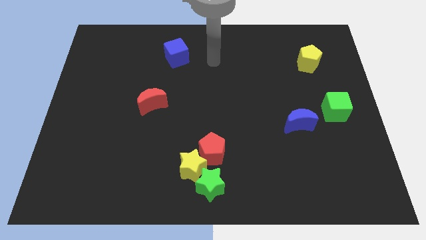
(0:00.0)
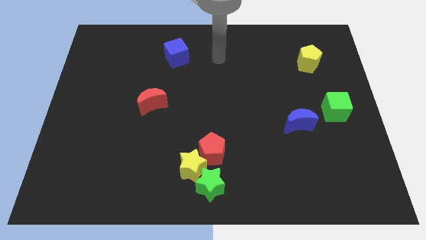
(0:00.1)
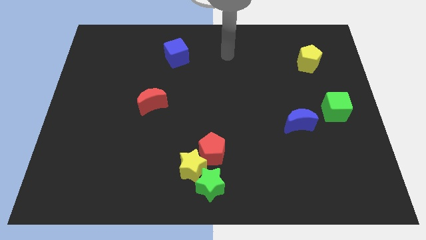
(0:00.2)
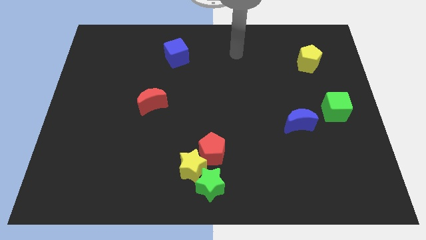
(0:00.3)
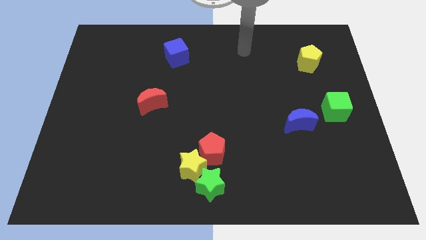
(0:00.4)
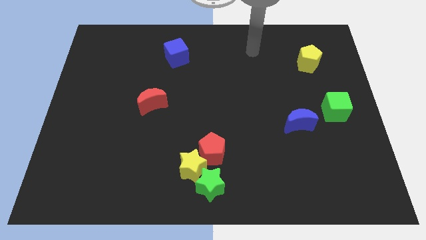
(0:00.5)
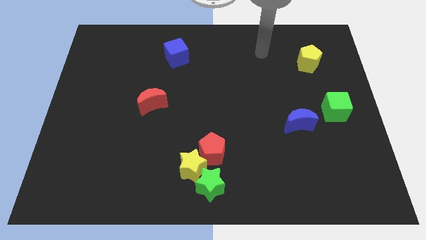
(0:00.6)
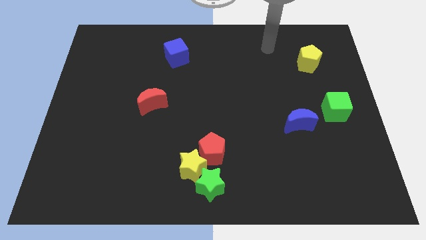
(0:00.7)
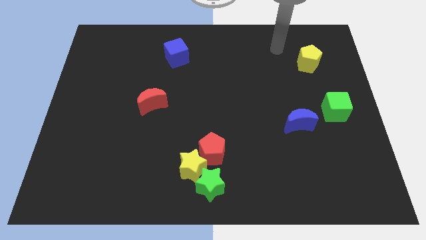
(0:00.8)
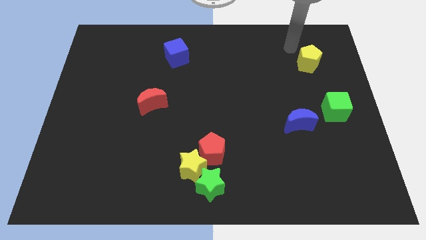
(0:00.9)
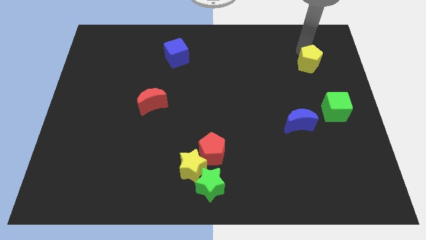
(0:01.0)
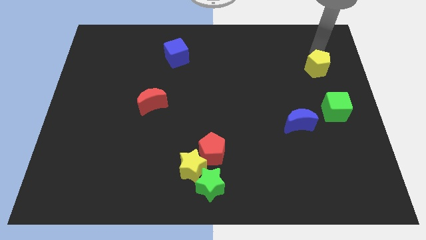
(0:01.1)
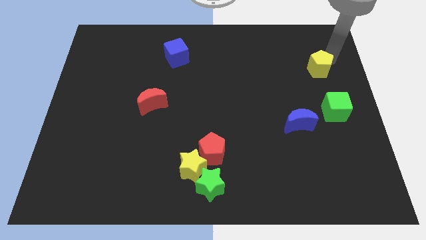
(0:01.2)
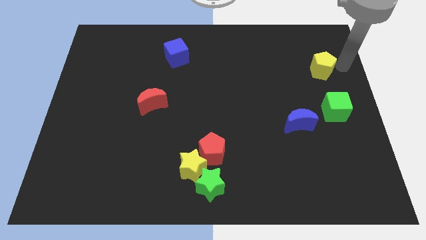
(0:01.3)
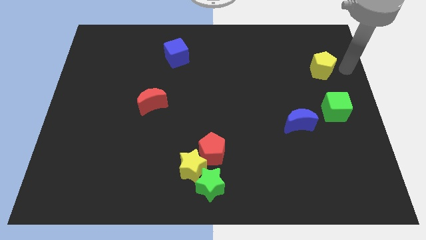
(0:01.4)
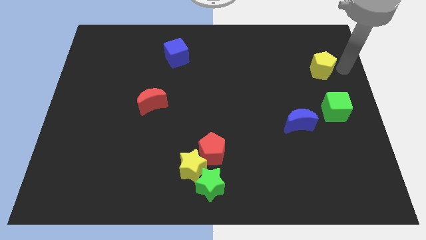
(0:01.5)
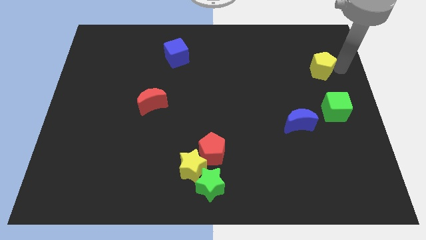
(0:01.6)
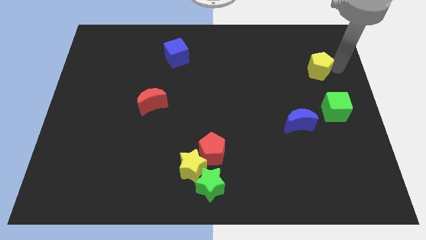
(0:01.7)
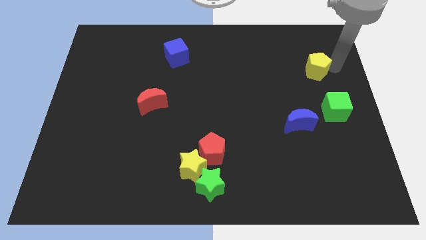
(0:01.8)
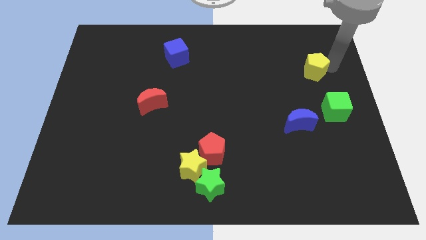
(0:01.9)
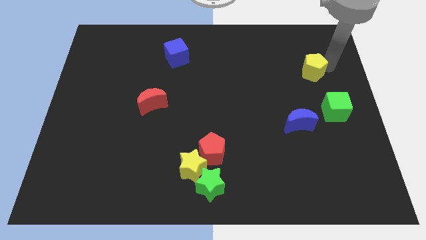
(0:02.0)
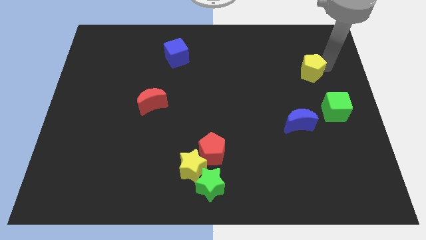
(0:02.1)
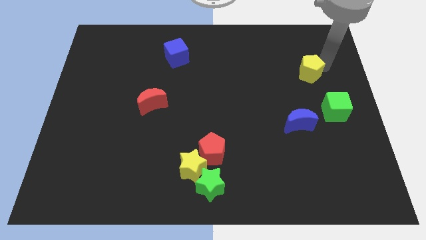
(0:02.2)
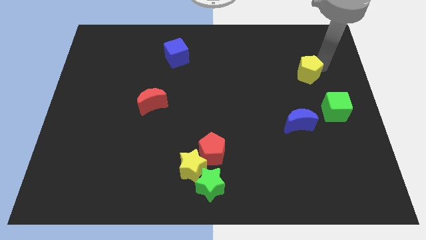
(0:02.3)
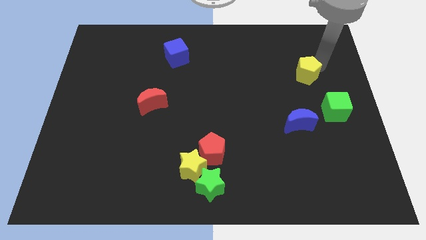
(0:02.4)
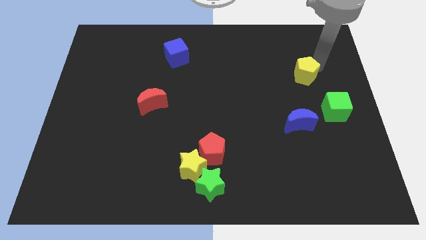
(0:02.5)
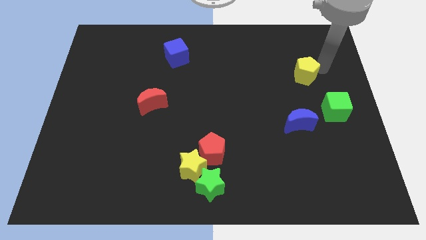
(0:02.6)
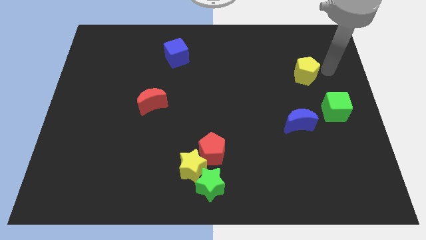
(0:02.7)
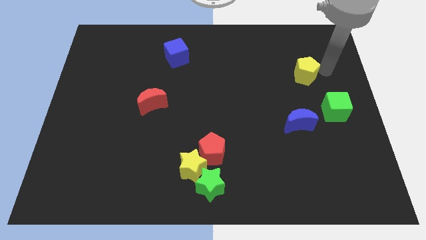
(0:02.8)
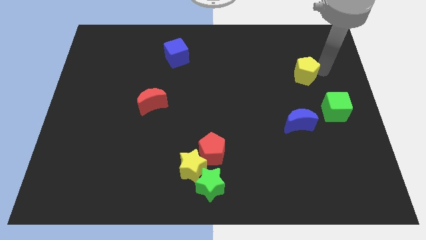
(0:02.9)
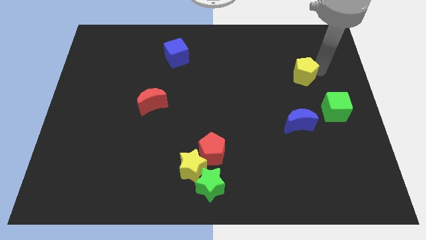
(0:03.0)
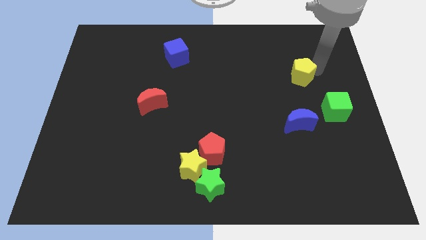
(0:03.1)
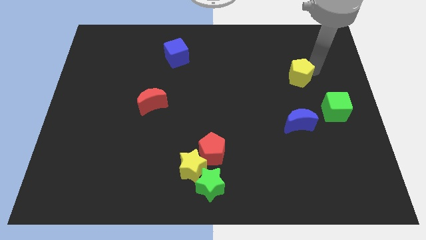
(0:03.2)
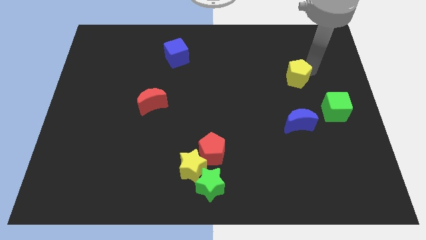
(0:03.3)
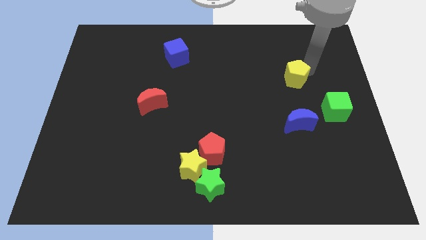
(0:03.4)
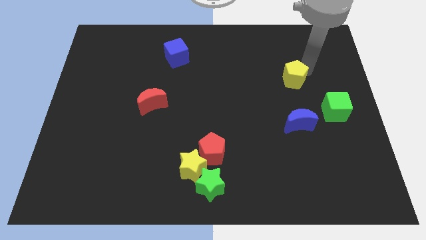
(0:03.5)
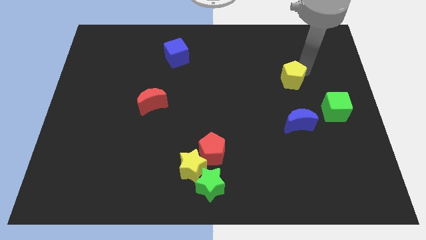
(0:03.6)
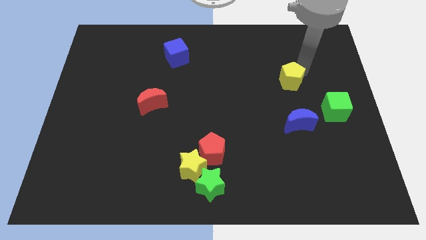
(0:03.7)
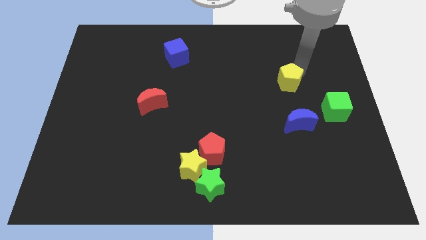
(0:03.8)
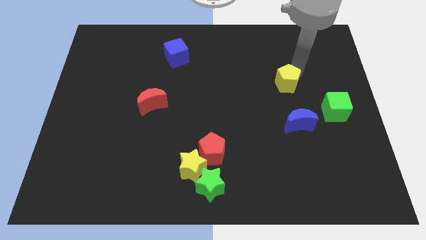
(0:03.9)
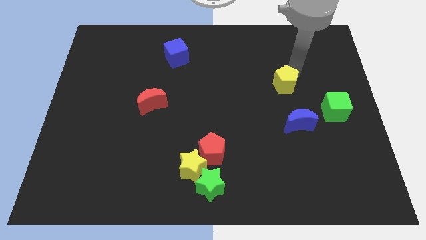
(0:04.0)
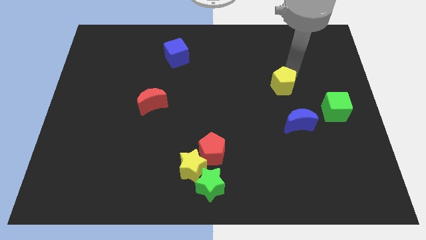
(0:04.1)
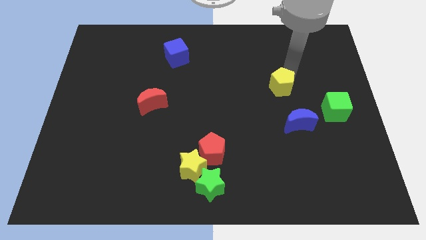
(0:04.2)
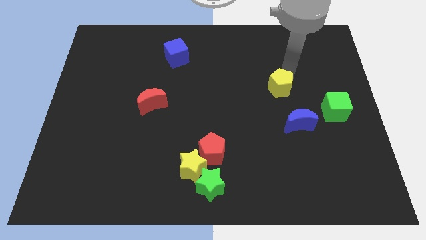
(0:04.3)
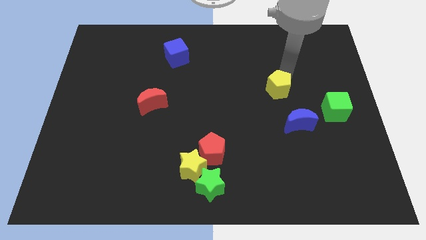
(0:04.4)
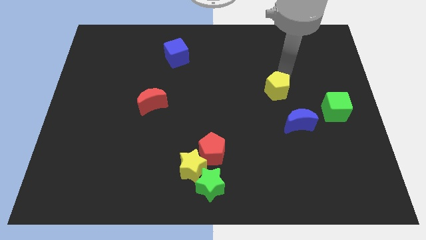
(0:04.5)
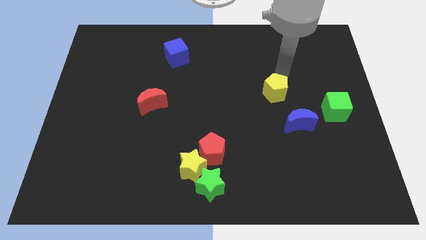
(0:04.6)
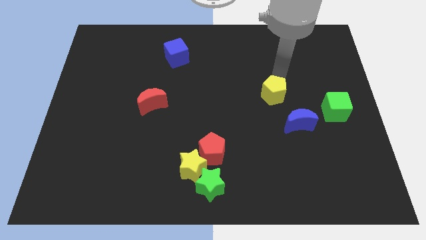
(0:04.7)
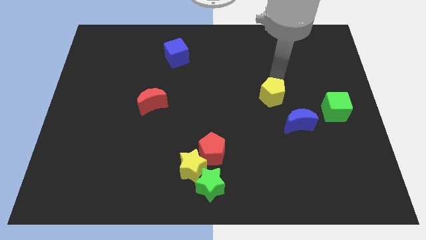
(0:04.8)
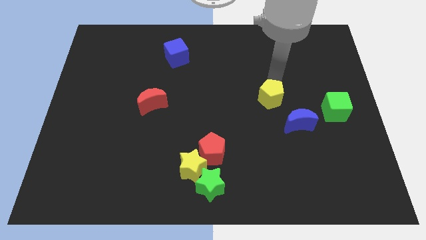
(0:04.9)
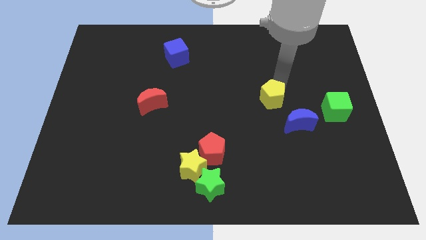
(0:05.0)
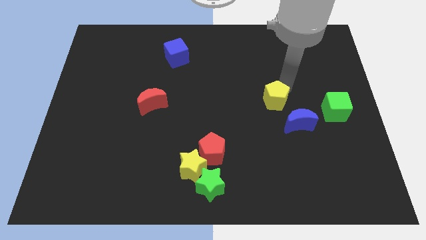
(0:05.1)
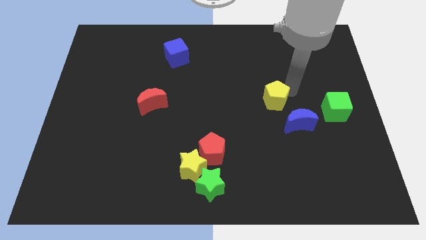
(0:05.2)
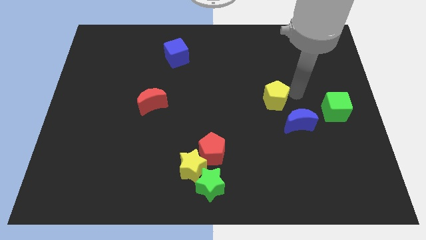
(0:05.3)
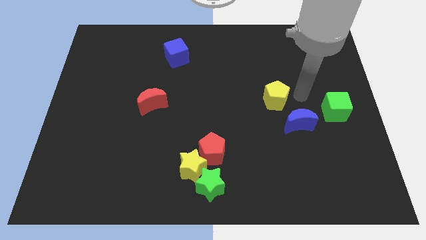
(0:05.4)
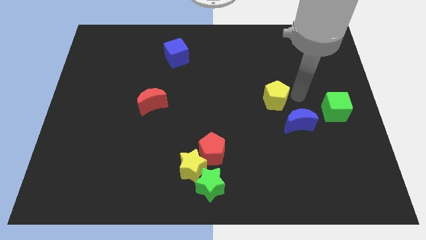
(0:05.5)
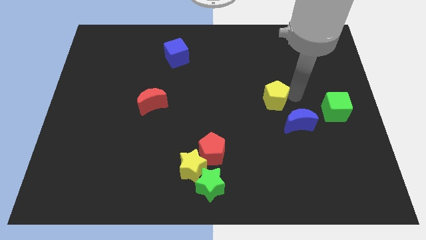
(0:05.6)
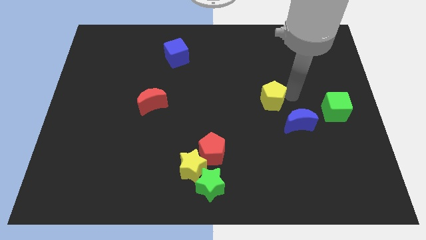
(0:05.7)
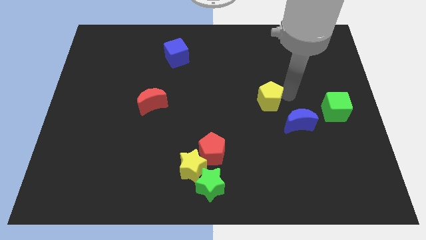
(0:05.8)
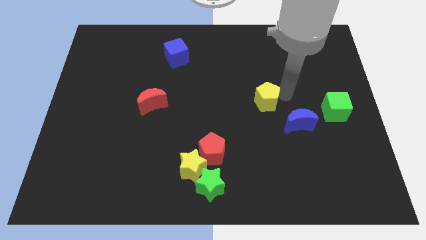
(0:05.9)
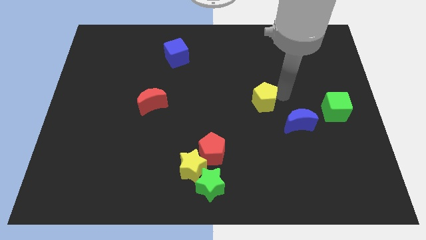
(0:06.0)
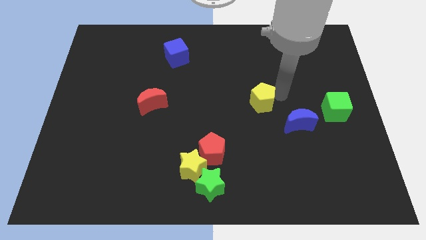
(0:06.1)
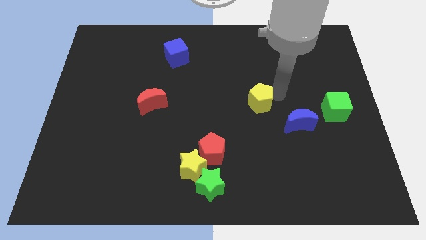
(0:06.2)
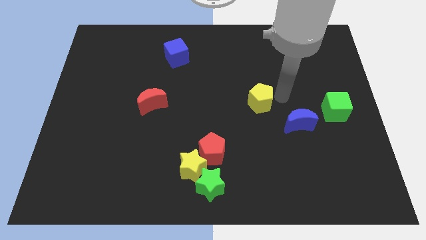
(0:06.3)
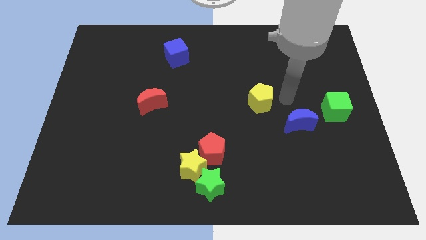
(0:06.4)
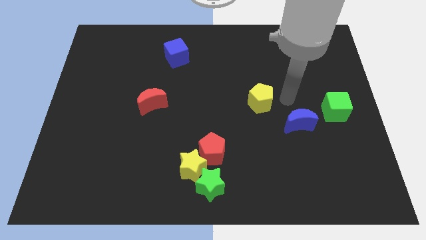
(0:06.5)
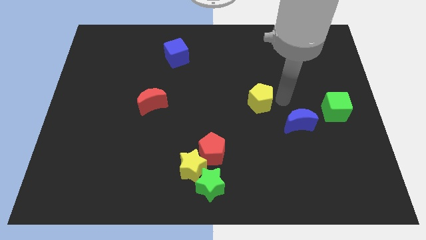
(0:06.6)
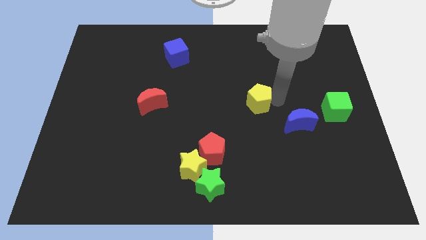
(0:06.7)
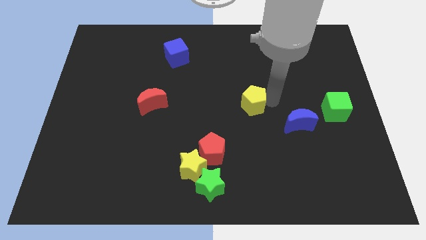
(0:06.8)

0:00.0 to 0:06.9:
move the yellow pentagon diagonally downwards and left

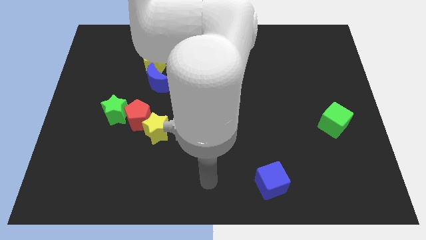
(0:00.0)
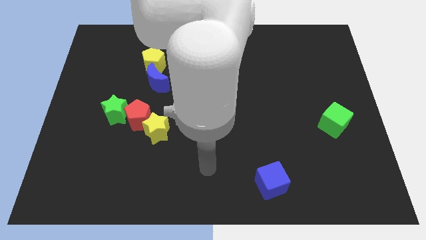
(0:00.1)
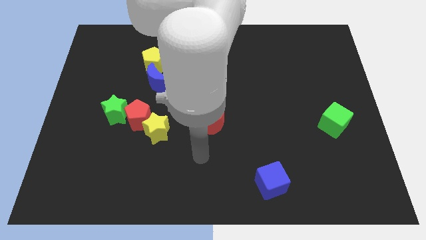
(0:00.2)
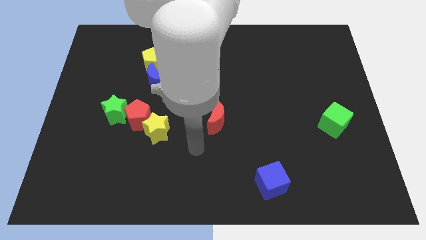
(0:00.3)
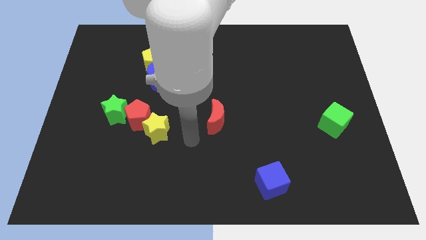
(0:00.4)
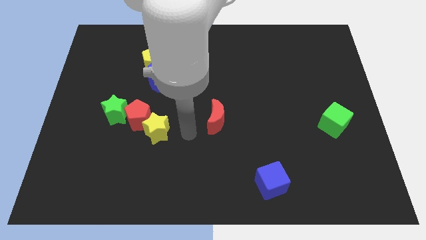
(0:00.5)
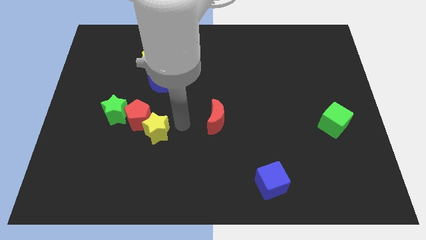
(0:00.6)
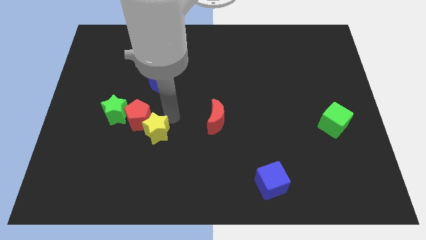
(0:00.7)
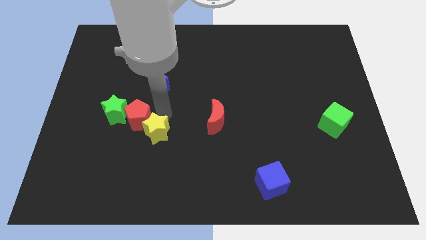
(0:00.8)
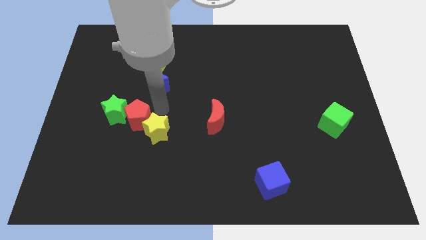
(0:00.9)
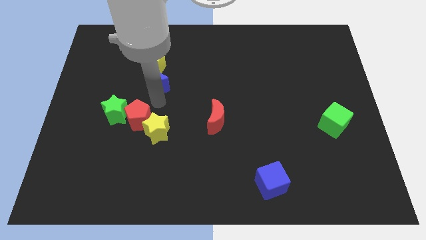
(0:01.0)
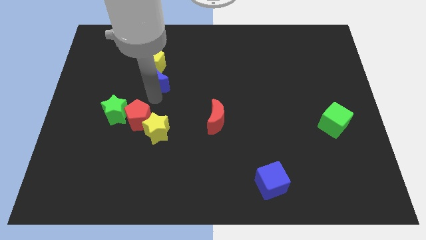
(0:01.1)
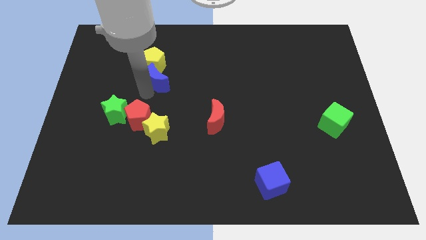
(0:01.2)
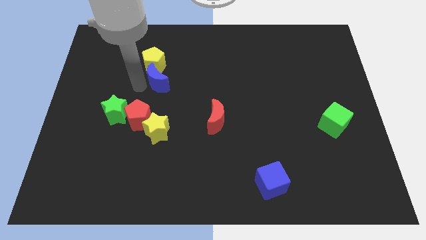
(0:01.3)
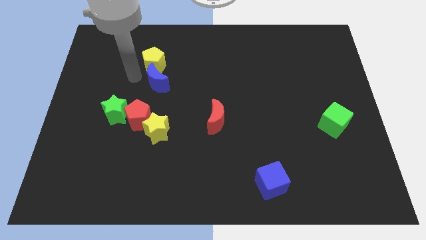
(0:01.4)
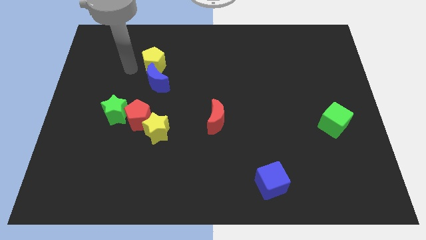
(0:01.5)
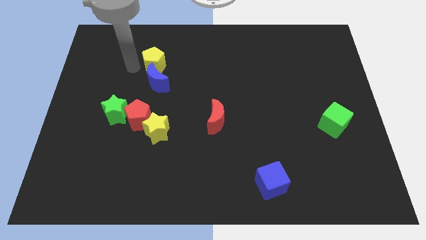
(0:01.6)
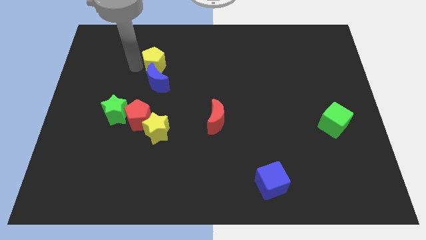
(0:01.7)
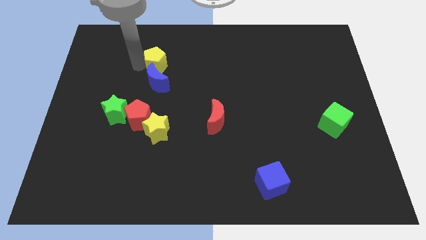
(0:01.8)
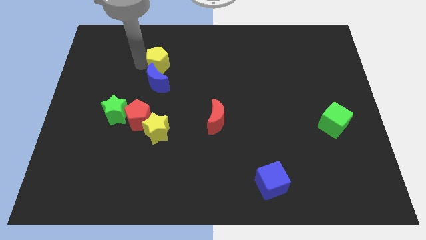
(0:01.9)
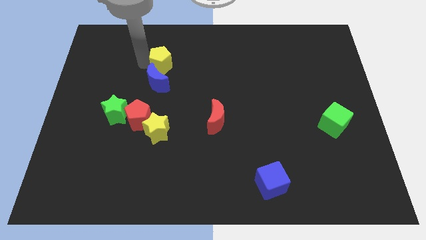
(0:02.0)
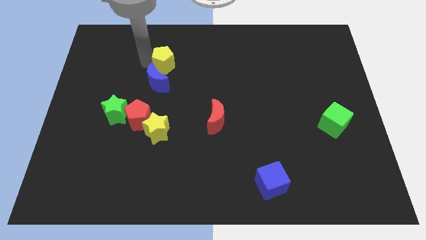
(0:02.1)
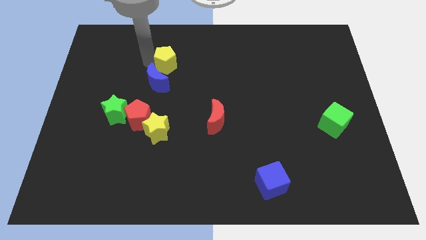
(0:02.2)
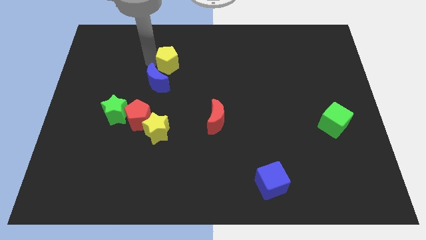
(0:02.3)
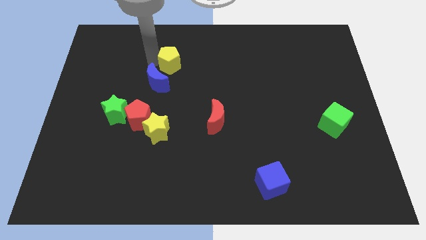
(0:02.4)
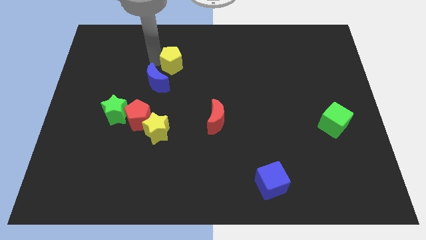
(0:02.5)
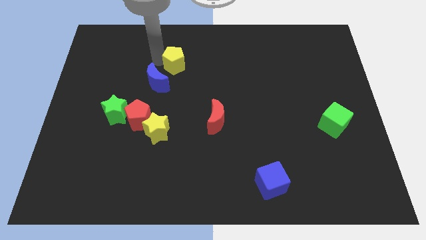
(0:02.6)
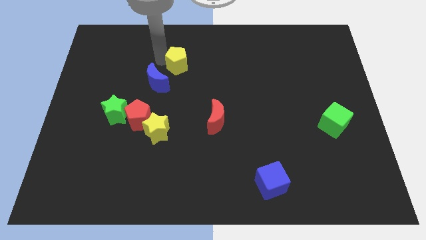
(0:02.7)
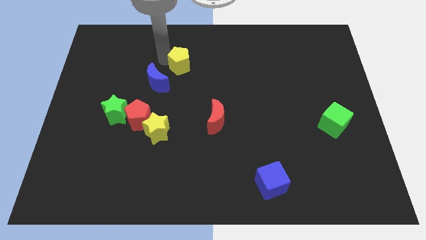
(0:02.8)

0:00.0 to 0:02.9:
move the yellow pentagon right a bit
